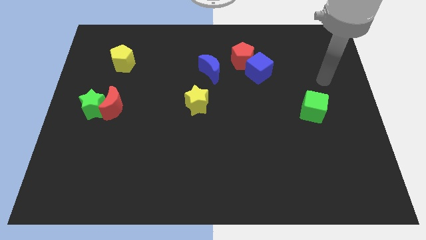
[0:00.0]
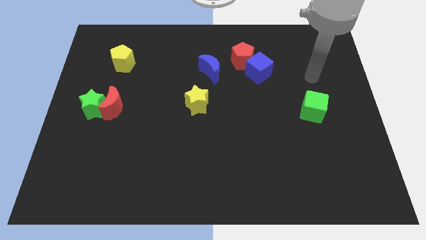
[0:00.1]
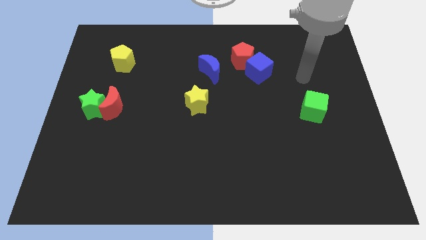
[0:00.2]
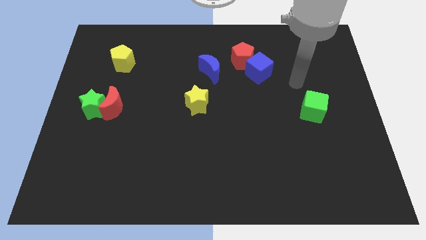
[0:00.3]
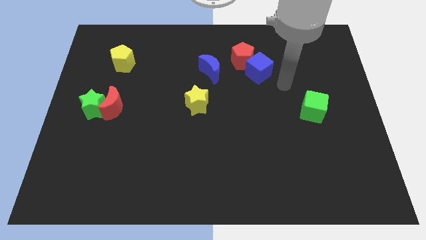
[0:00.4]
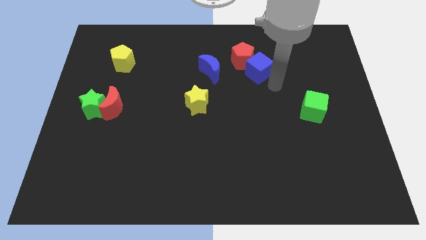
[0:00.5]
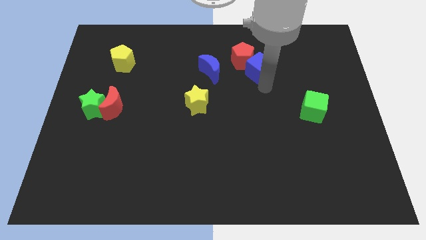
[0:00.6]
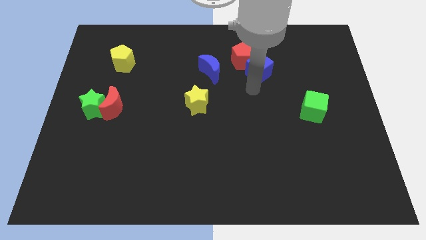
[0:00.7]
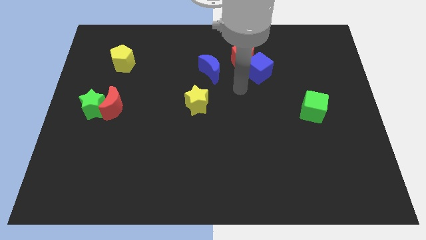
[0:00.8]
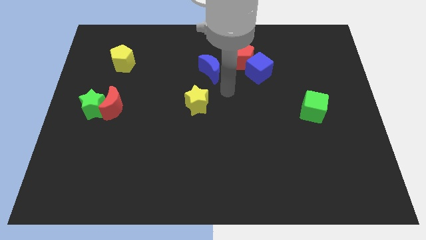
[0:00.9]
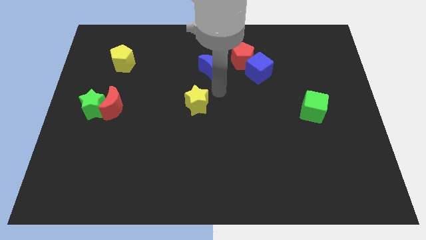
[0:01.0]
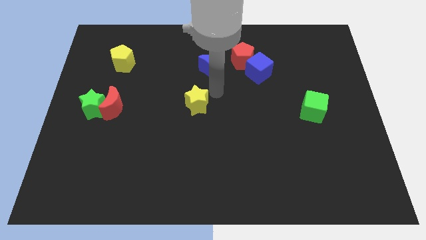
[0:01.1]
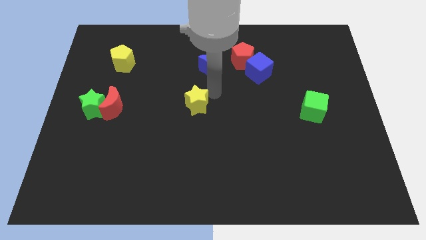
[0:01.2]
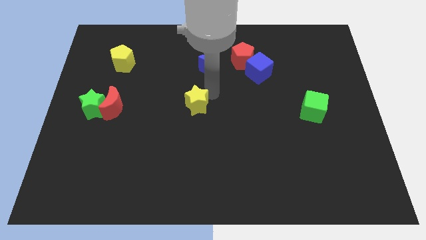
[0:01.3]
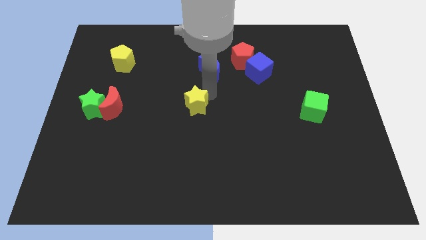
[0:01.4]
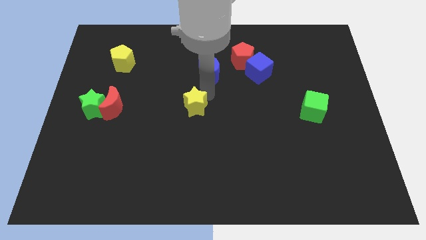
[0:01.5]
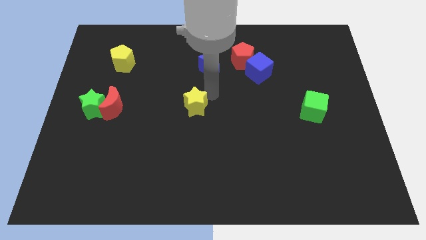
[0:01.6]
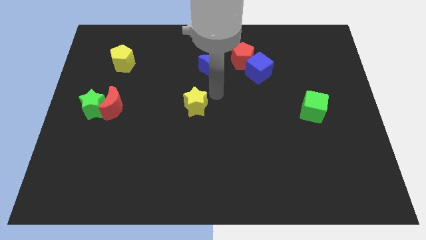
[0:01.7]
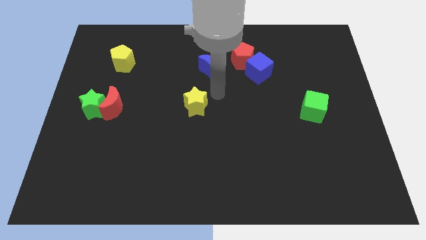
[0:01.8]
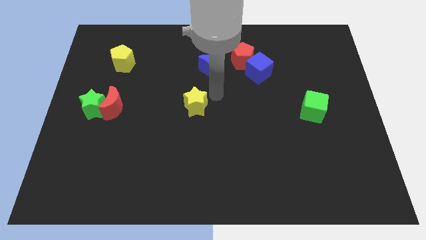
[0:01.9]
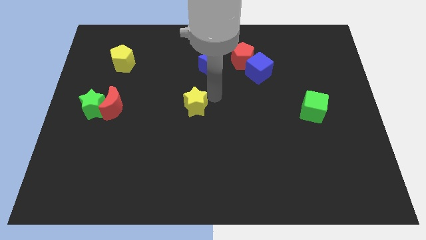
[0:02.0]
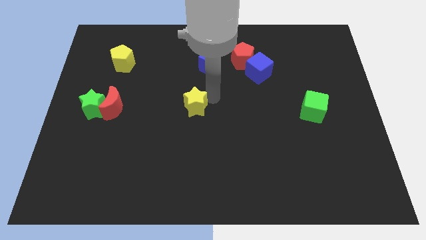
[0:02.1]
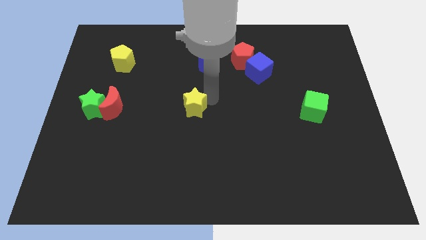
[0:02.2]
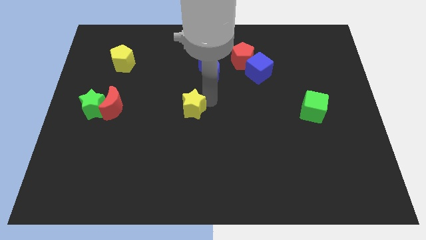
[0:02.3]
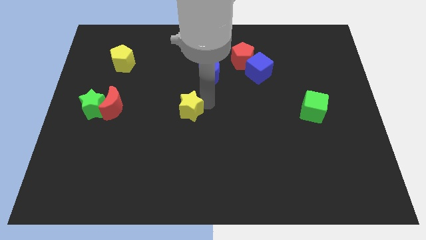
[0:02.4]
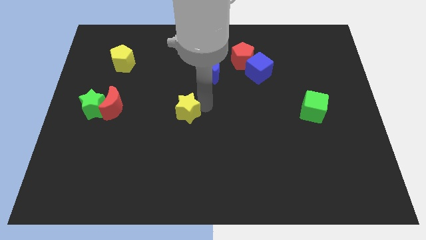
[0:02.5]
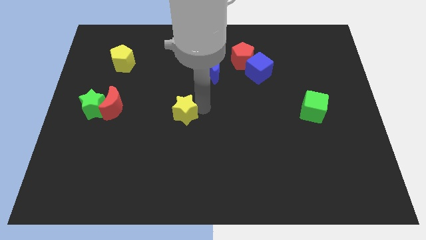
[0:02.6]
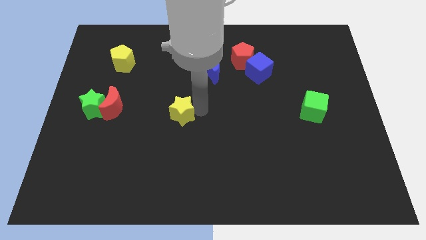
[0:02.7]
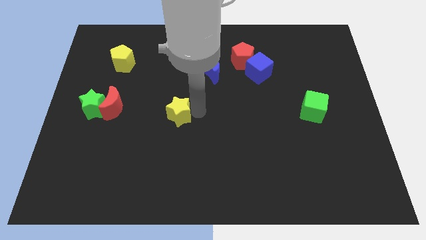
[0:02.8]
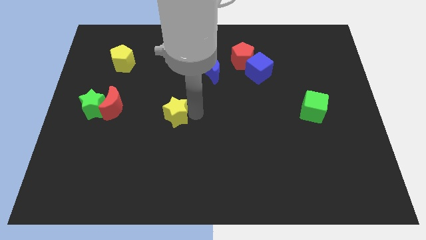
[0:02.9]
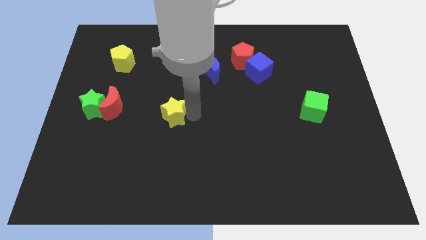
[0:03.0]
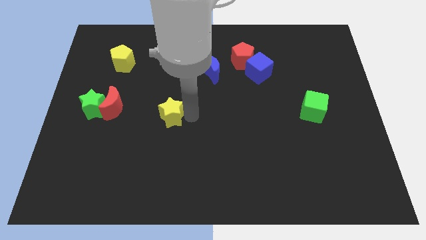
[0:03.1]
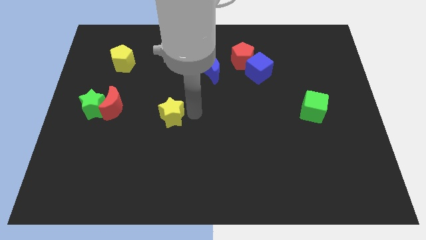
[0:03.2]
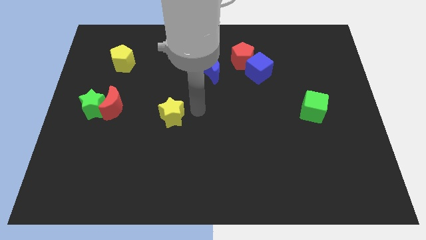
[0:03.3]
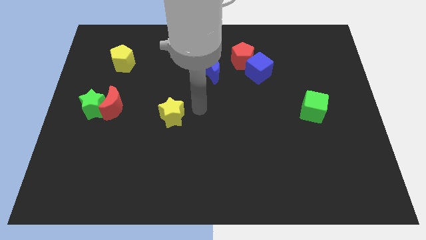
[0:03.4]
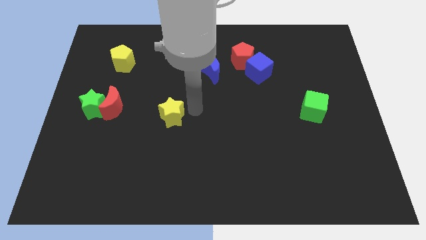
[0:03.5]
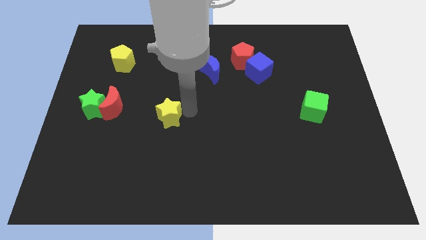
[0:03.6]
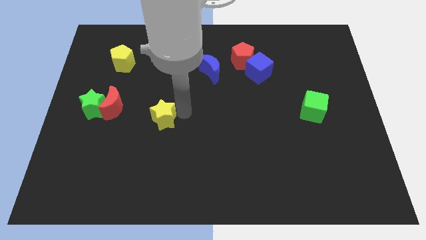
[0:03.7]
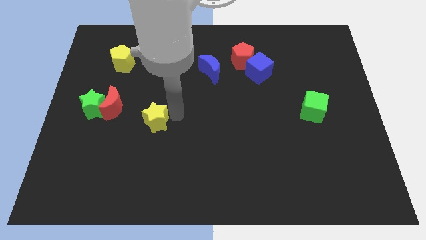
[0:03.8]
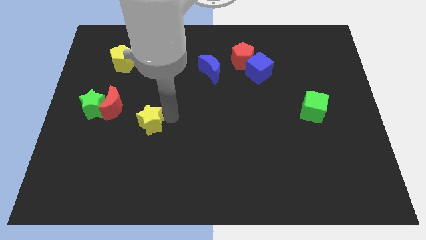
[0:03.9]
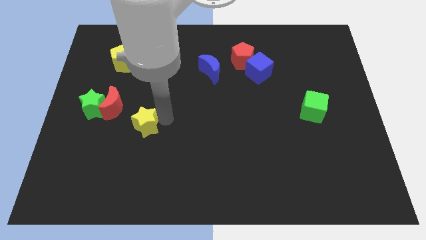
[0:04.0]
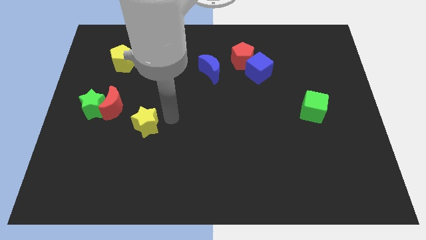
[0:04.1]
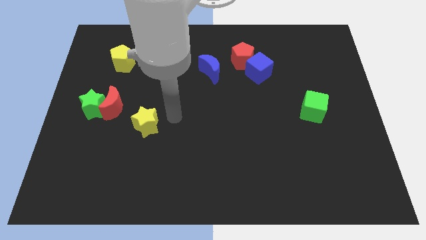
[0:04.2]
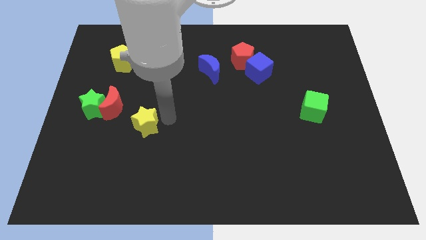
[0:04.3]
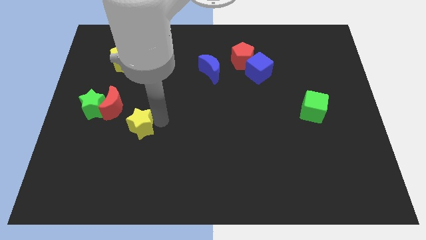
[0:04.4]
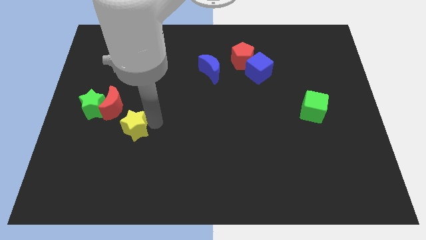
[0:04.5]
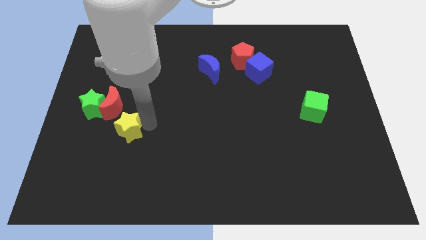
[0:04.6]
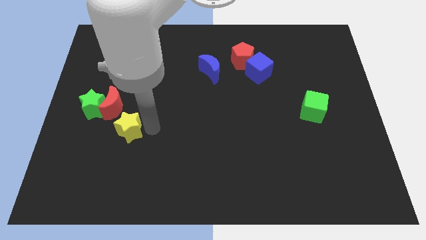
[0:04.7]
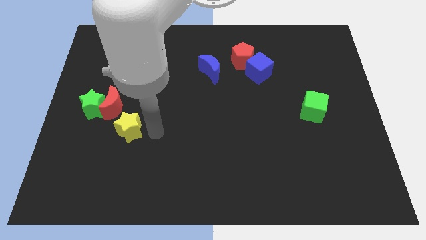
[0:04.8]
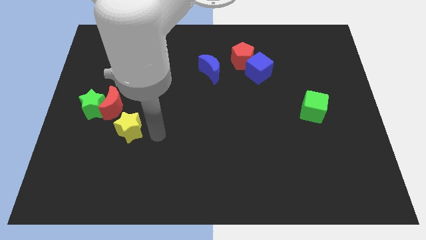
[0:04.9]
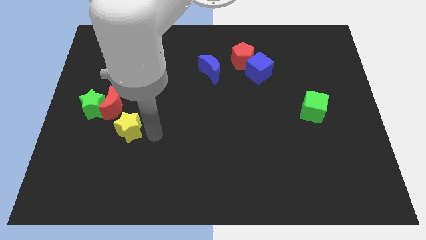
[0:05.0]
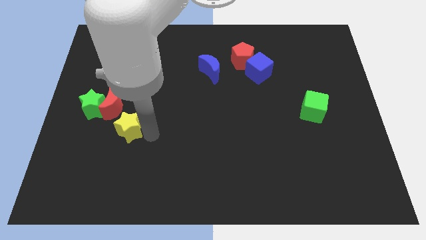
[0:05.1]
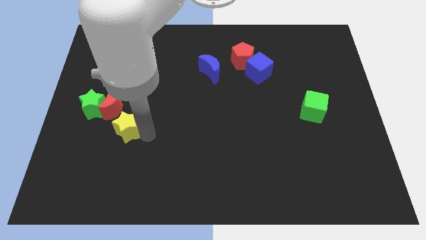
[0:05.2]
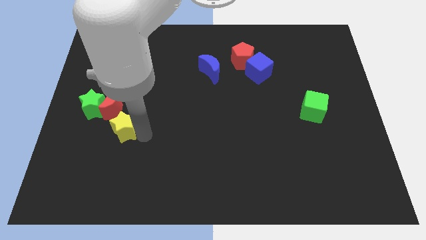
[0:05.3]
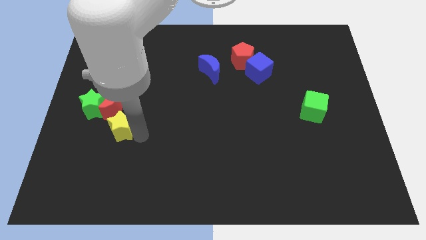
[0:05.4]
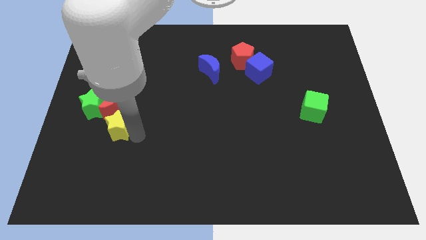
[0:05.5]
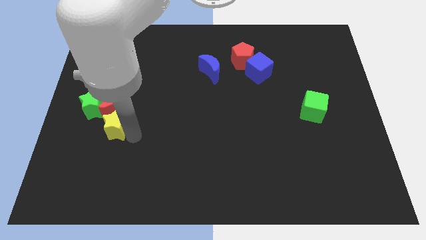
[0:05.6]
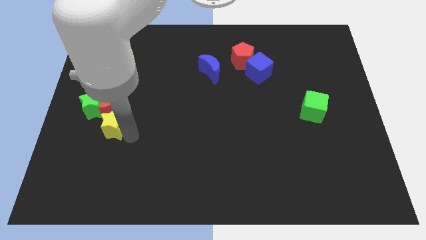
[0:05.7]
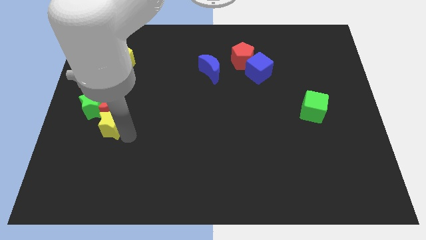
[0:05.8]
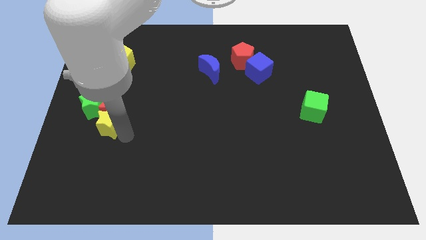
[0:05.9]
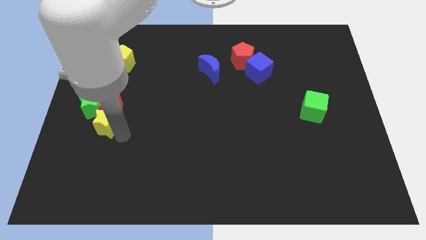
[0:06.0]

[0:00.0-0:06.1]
push the yellow star to the green star
